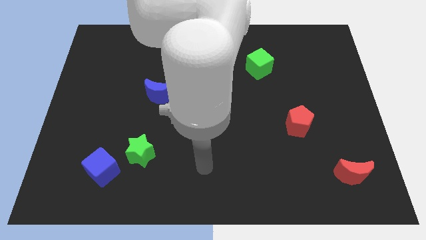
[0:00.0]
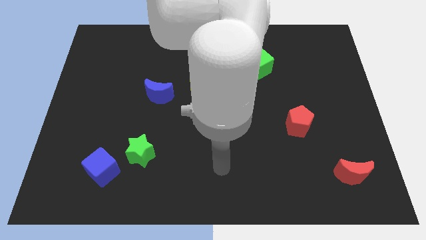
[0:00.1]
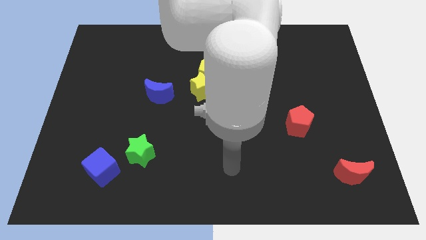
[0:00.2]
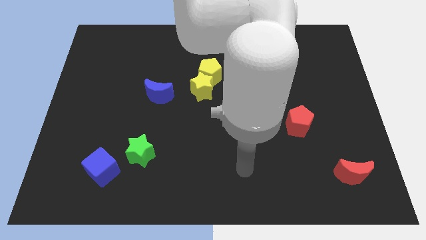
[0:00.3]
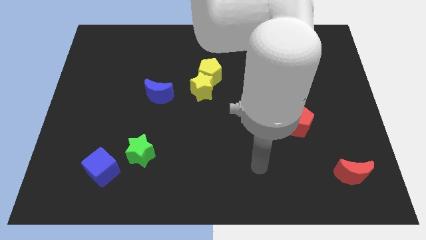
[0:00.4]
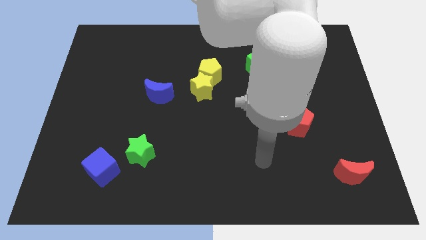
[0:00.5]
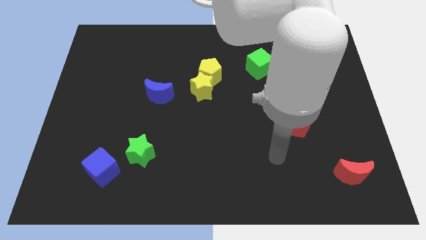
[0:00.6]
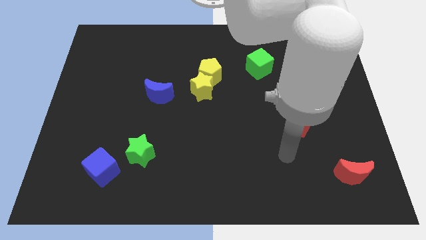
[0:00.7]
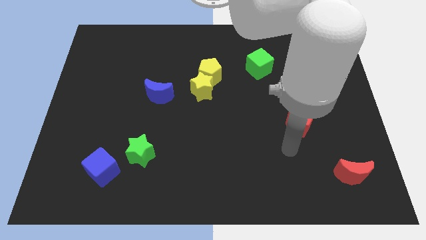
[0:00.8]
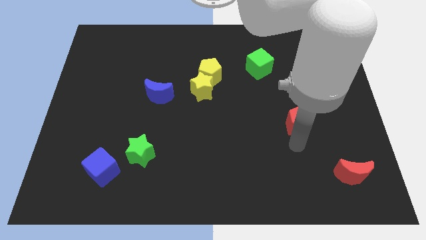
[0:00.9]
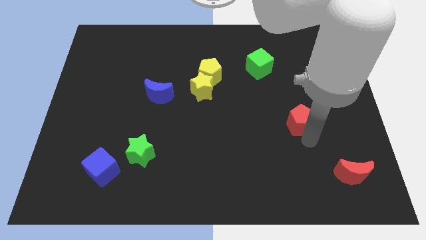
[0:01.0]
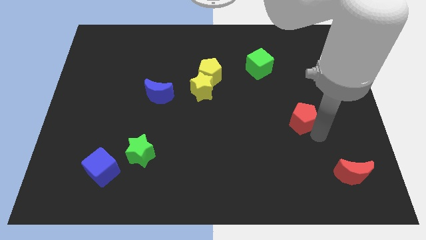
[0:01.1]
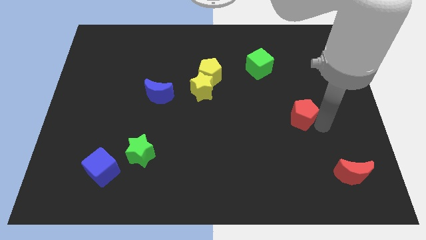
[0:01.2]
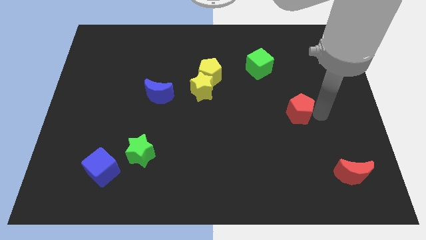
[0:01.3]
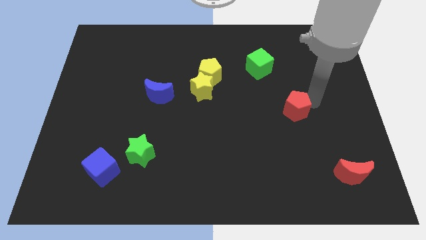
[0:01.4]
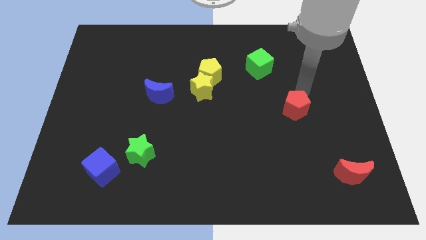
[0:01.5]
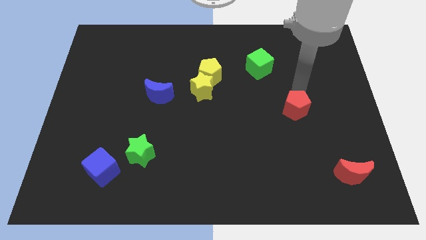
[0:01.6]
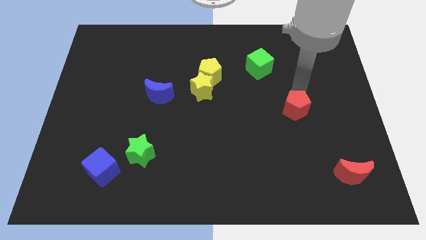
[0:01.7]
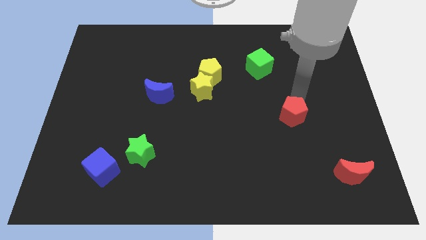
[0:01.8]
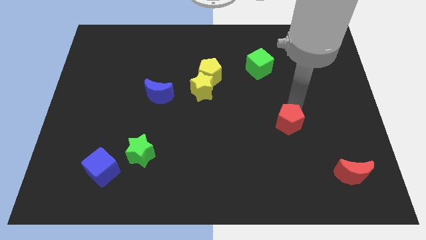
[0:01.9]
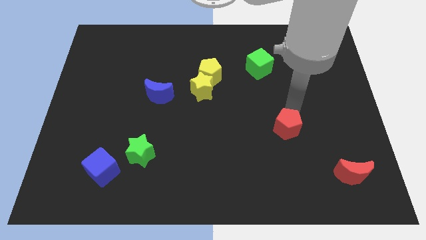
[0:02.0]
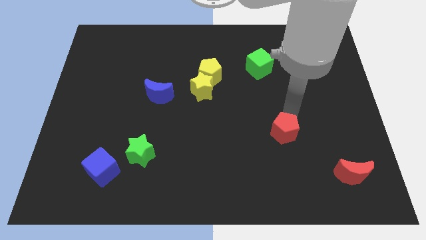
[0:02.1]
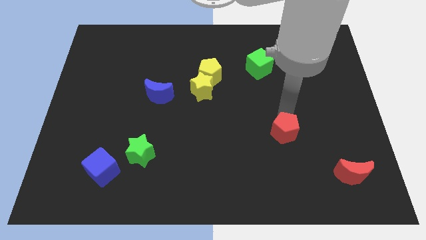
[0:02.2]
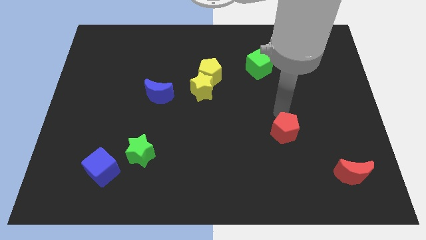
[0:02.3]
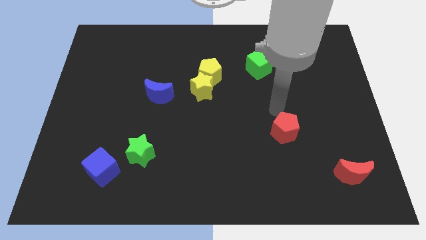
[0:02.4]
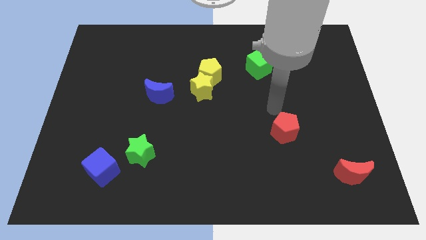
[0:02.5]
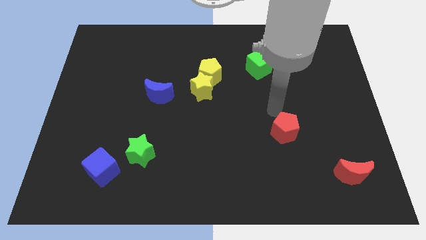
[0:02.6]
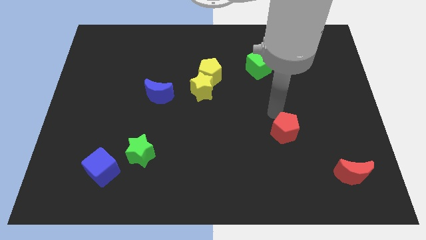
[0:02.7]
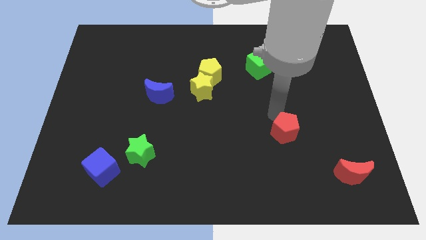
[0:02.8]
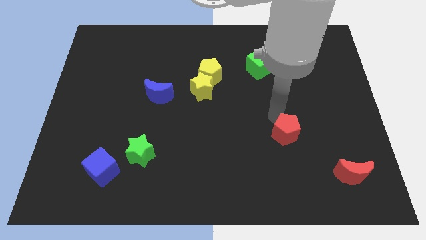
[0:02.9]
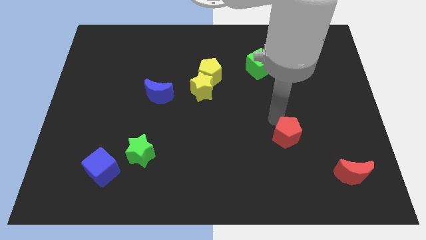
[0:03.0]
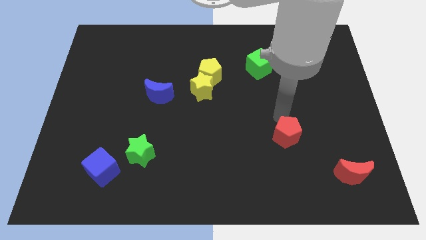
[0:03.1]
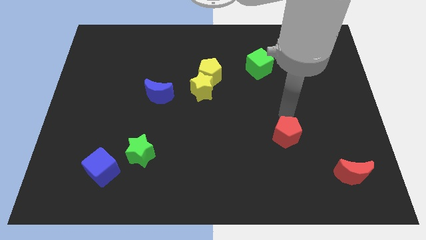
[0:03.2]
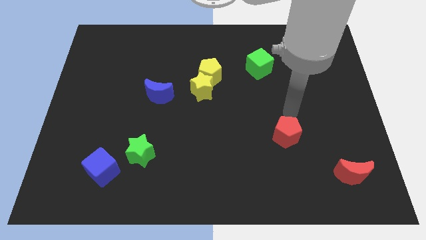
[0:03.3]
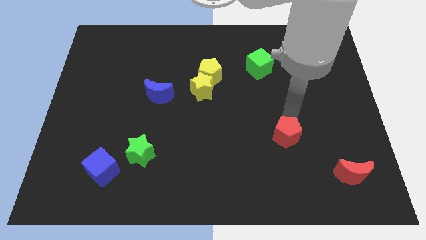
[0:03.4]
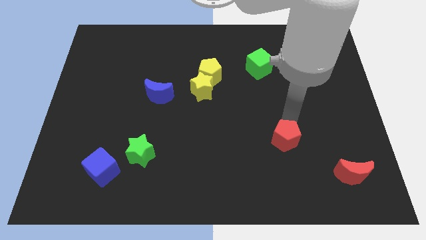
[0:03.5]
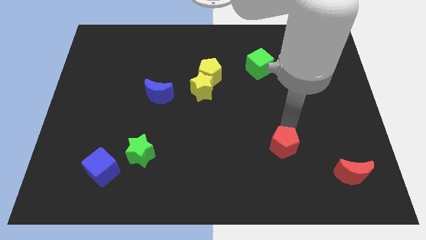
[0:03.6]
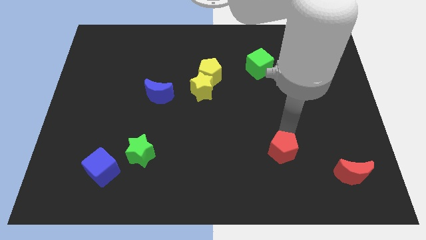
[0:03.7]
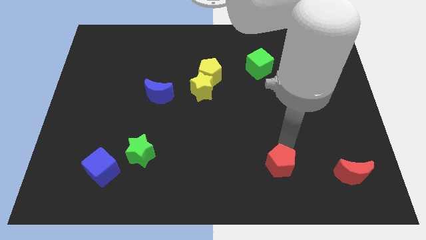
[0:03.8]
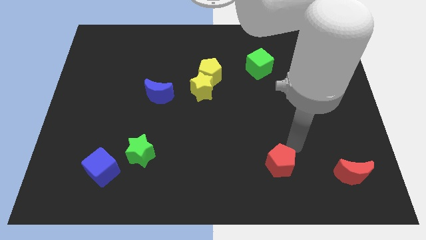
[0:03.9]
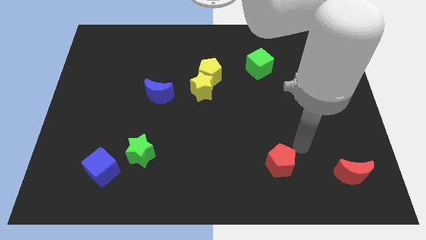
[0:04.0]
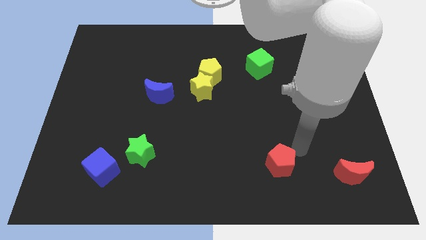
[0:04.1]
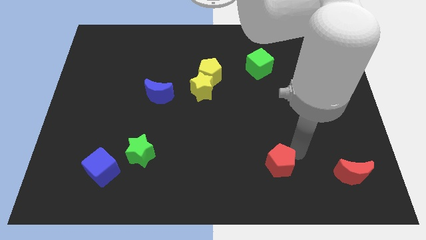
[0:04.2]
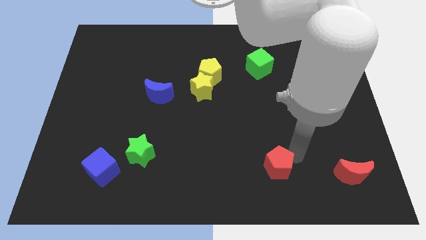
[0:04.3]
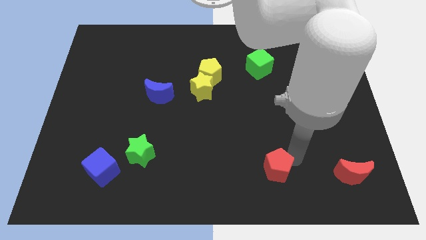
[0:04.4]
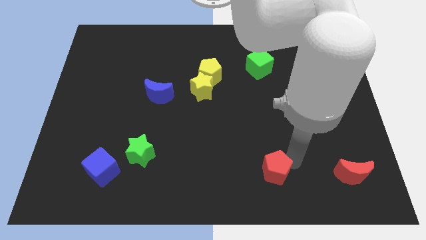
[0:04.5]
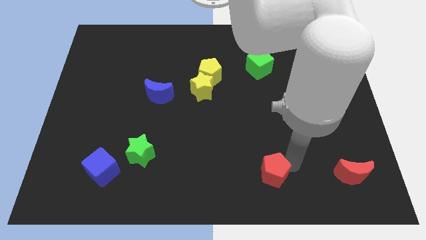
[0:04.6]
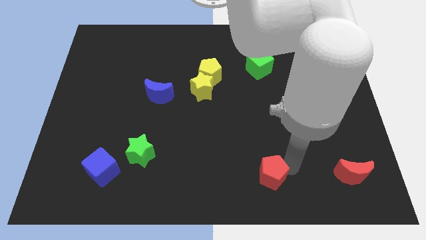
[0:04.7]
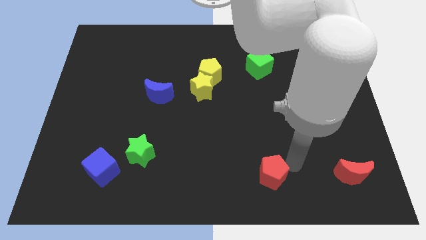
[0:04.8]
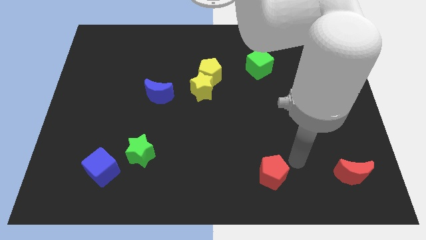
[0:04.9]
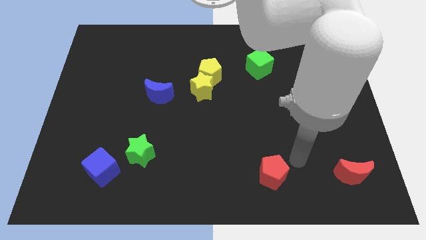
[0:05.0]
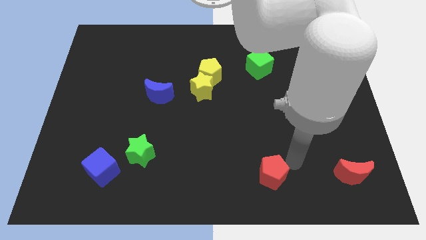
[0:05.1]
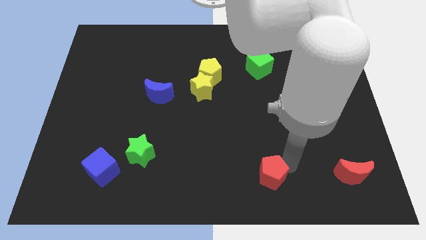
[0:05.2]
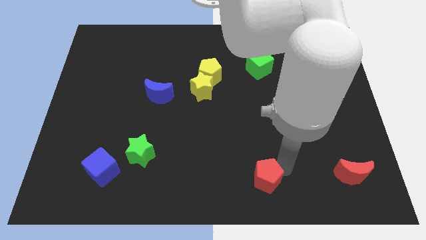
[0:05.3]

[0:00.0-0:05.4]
push the red pentagon to the bottom
